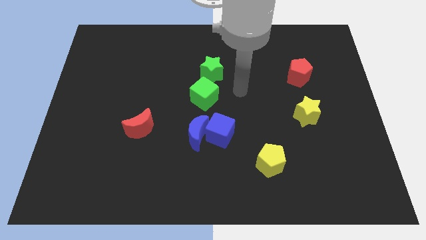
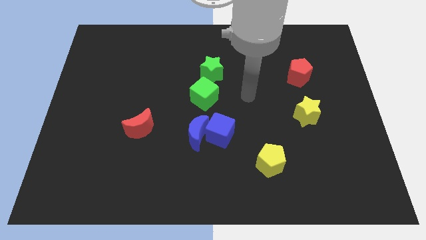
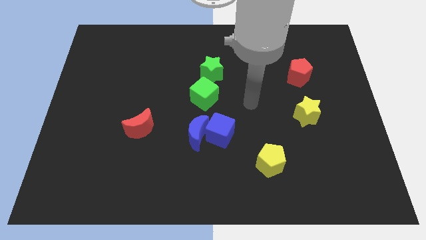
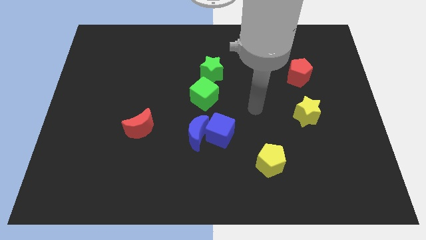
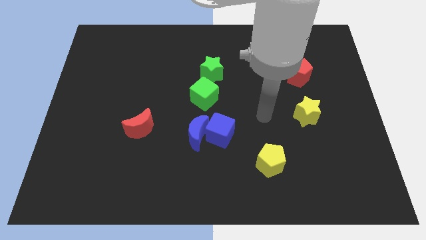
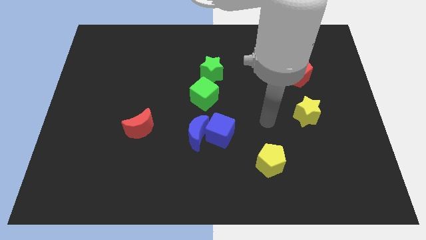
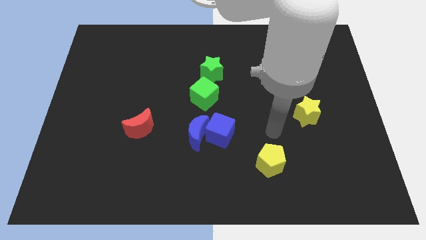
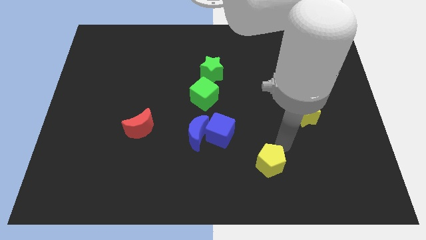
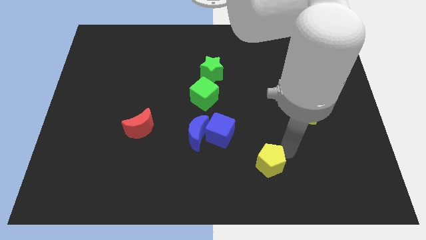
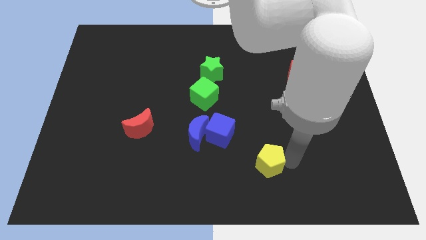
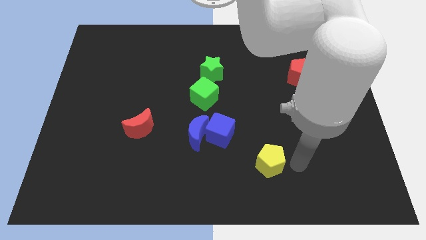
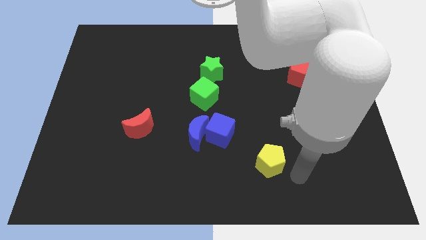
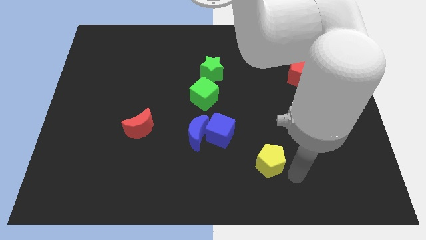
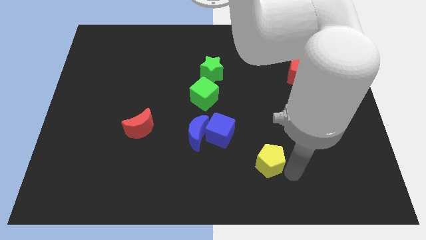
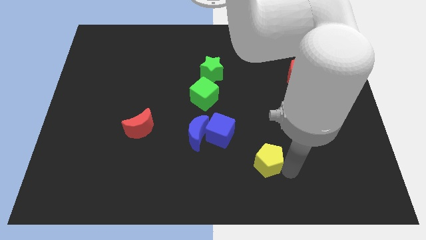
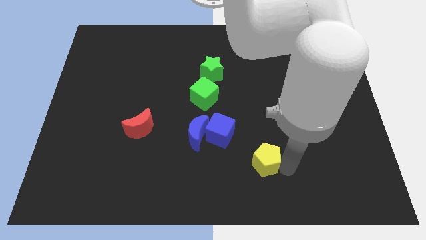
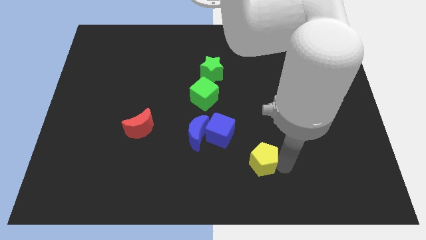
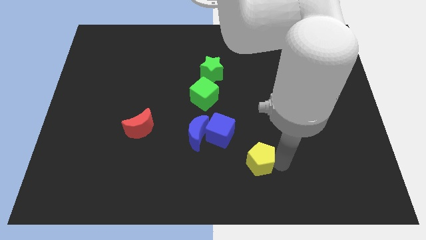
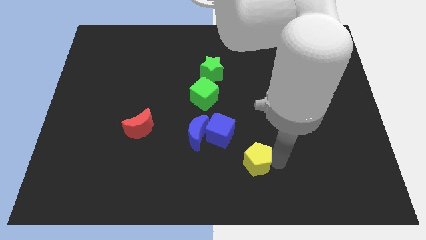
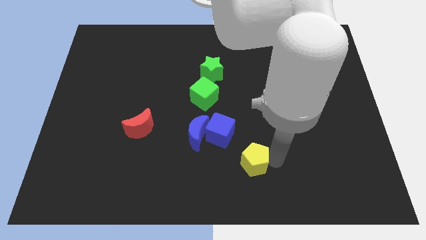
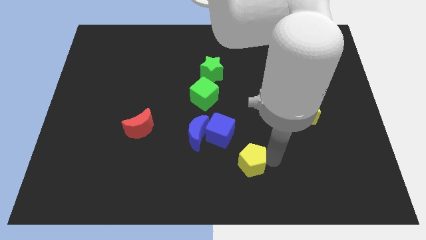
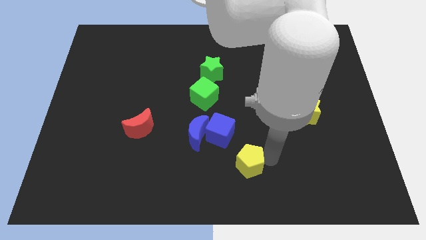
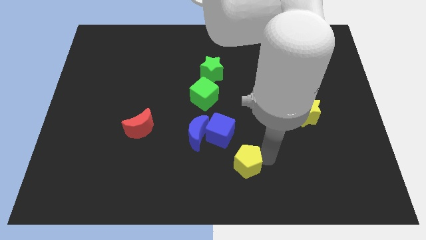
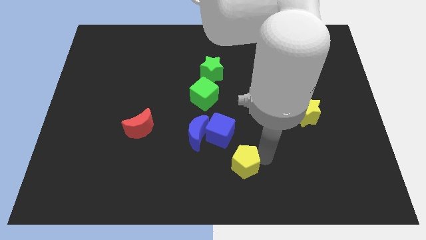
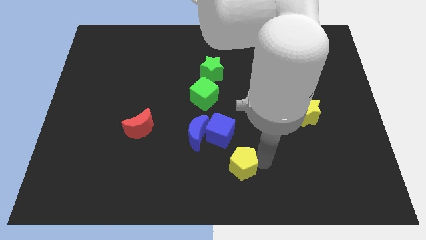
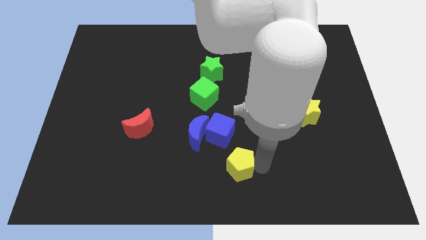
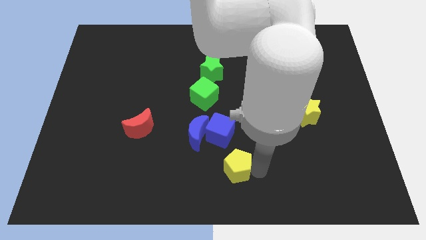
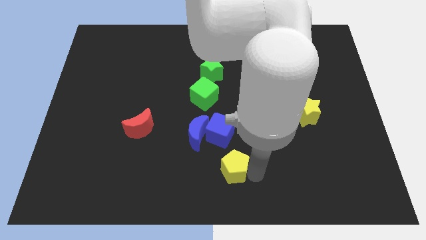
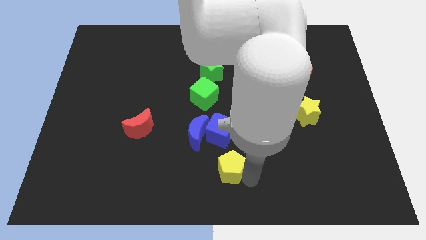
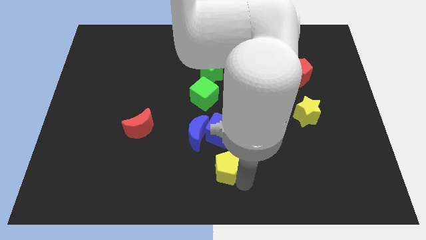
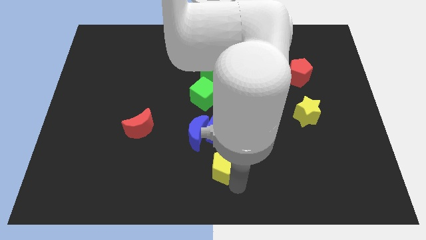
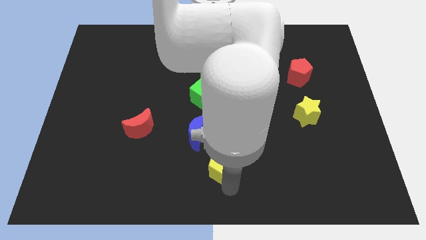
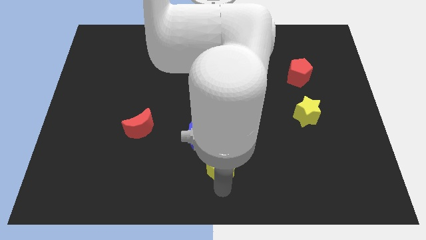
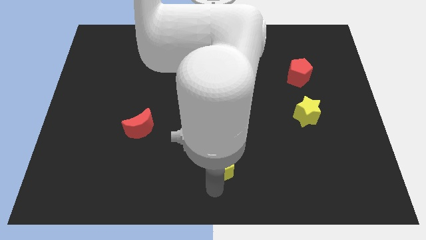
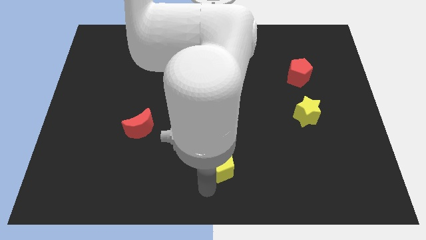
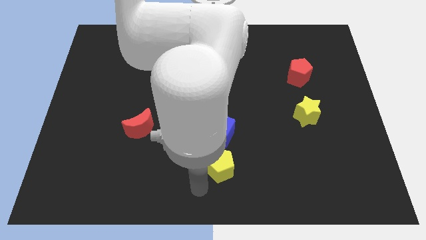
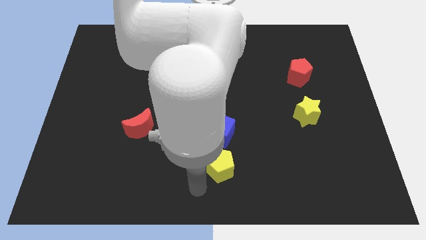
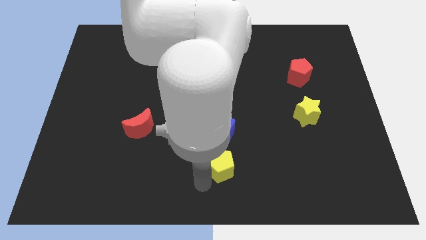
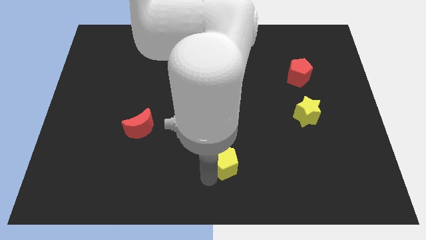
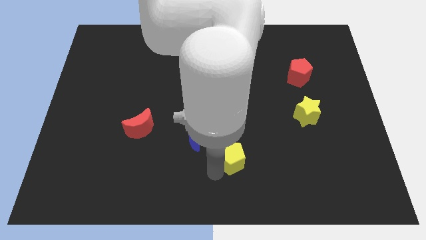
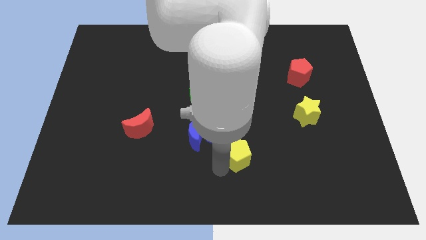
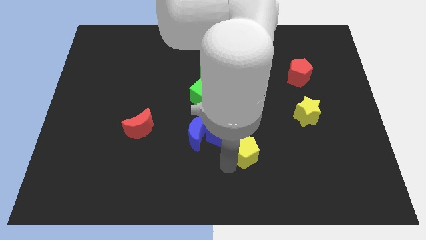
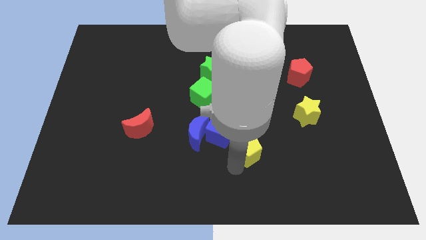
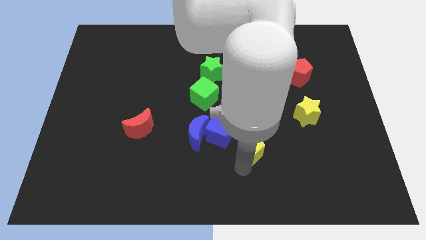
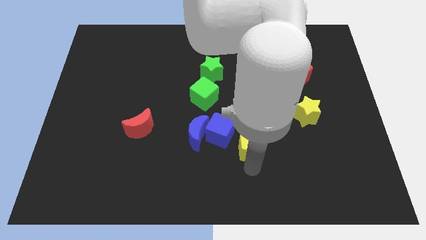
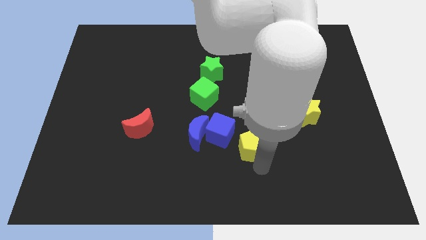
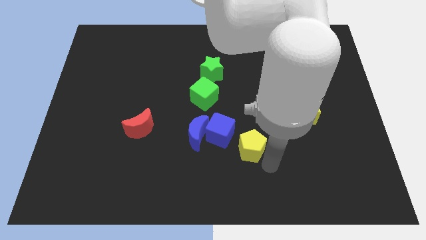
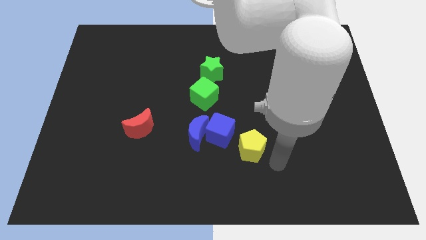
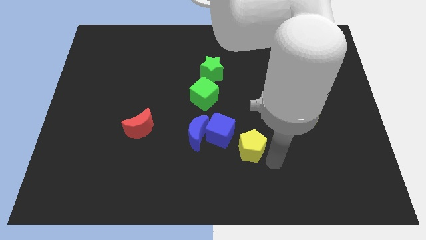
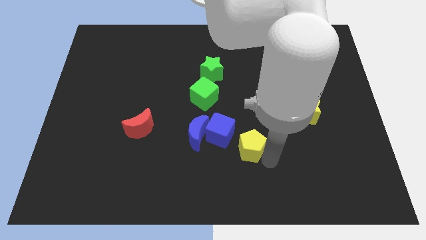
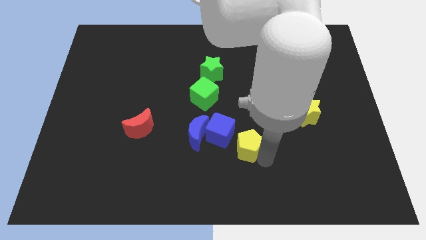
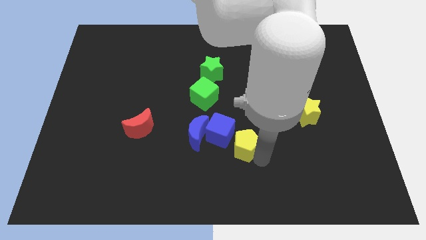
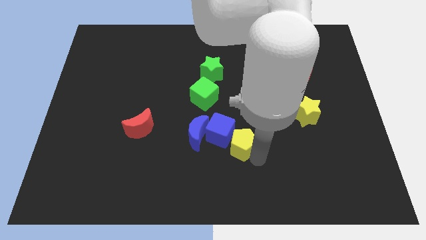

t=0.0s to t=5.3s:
slide the yellow pentagon close to the blue cube

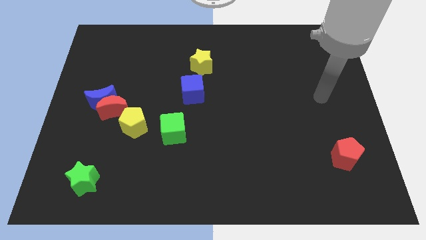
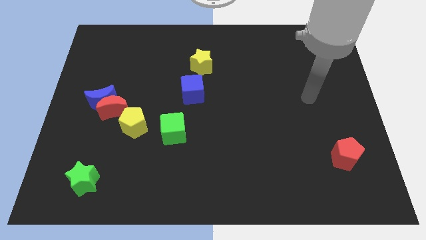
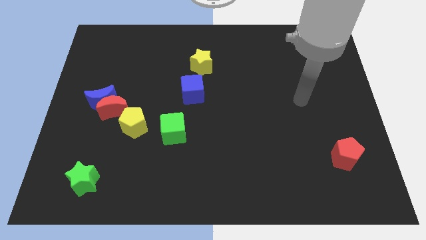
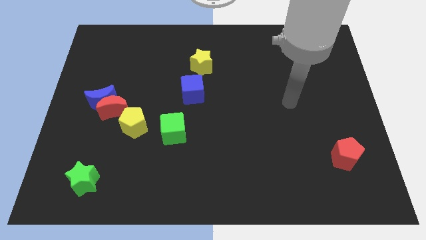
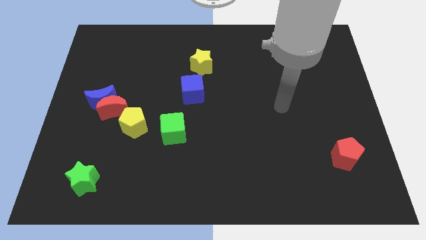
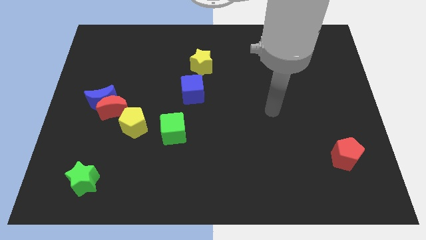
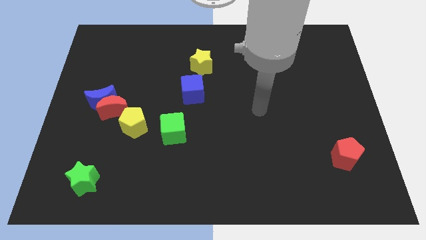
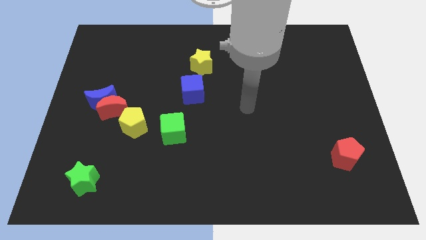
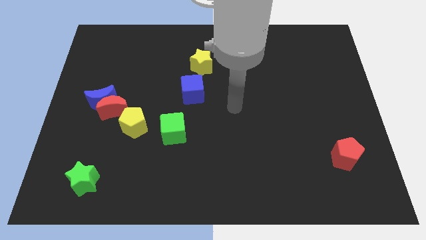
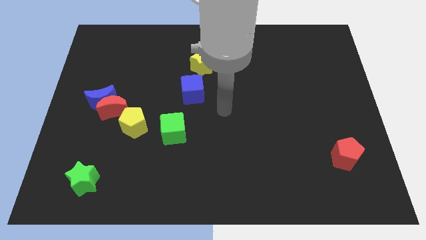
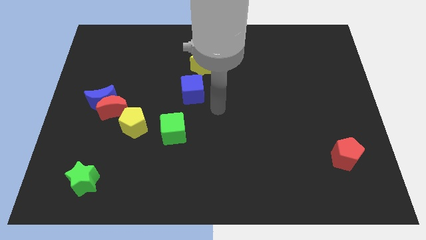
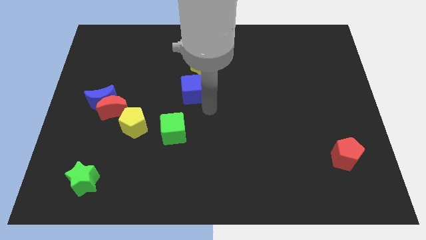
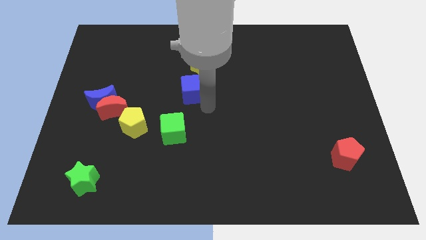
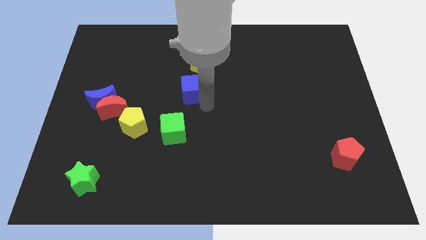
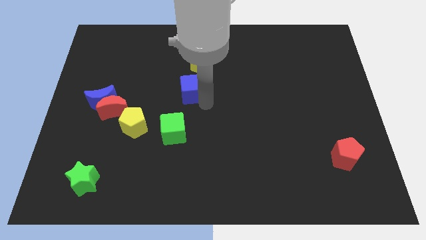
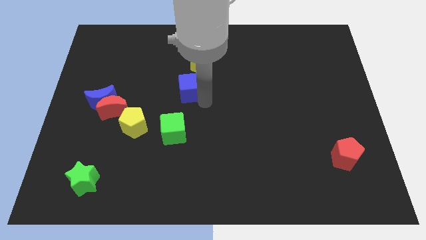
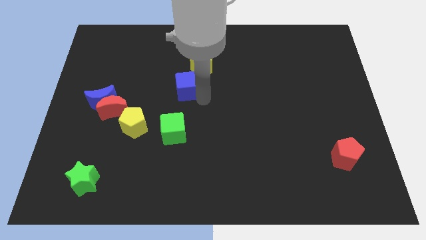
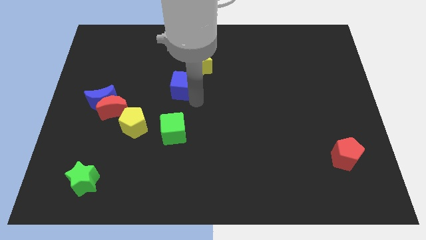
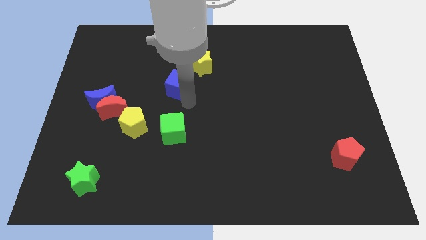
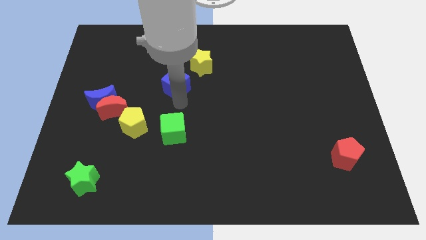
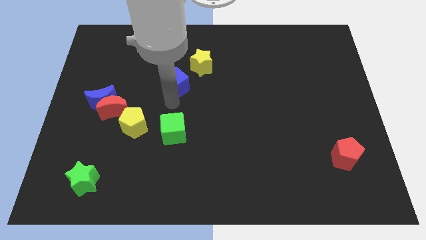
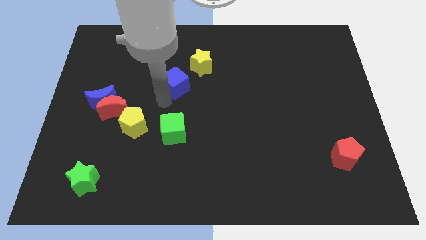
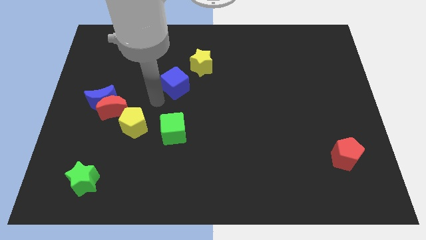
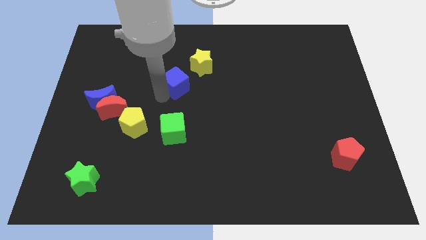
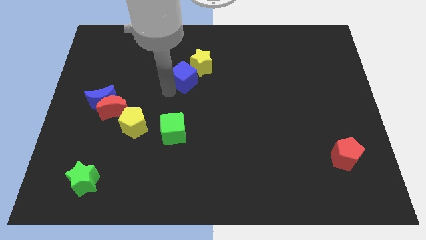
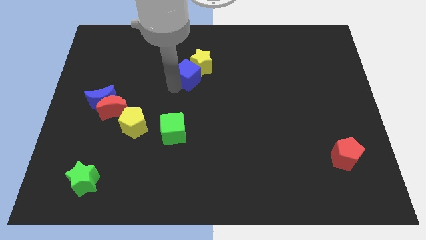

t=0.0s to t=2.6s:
move the blue cube close to the yellow star
